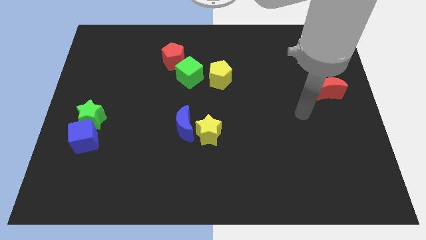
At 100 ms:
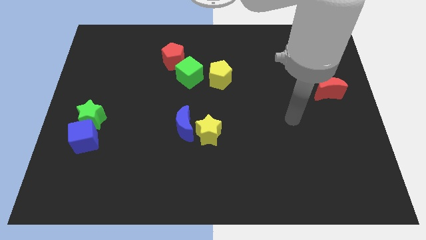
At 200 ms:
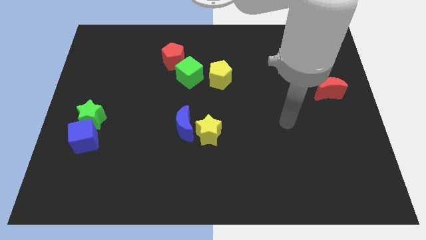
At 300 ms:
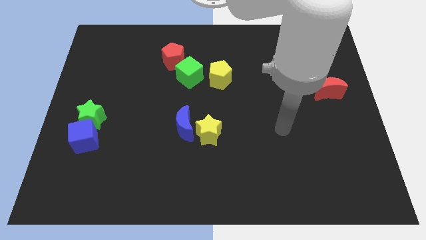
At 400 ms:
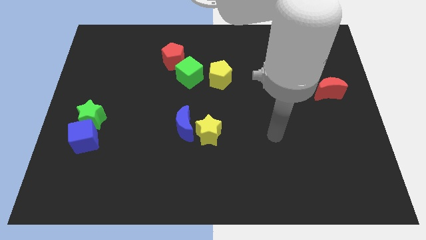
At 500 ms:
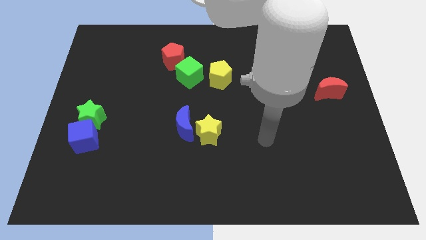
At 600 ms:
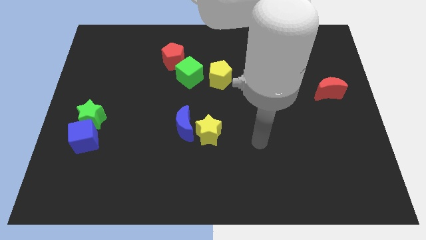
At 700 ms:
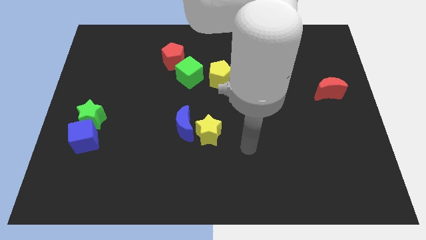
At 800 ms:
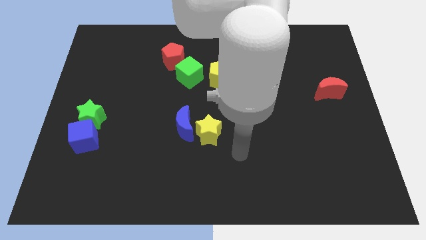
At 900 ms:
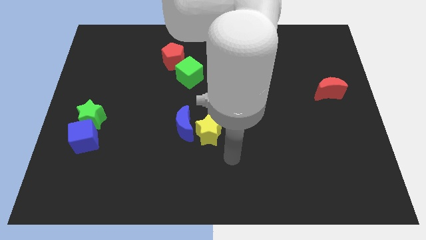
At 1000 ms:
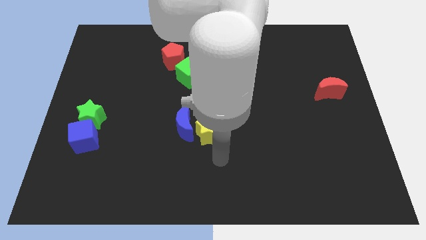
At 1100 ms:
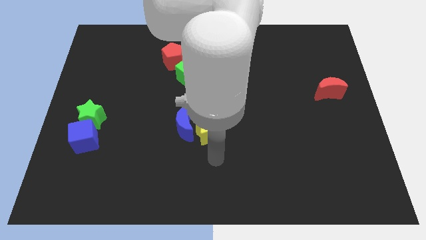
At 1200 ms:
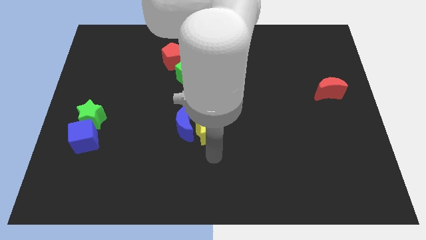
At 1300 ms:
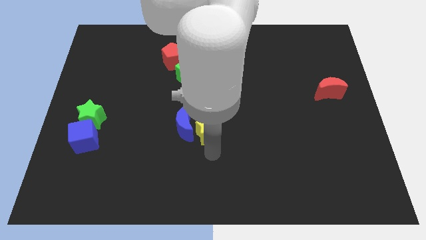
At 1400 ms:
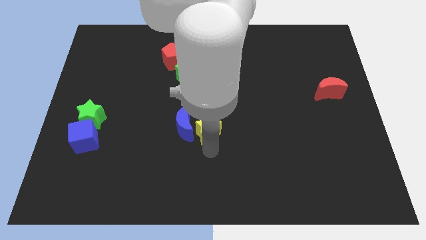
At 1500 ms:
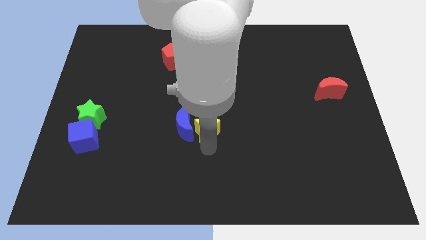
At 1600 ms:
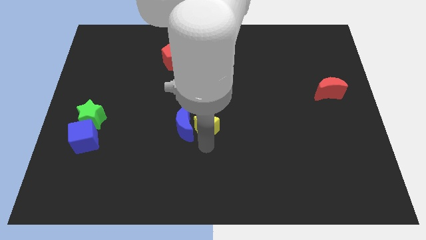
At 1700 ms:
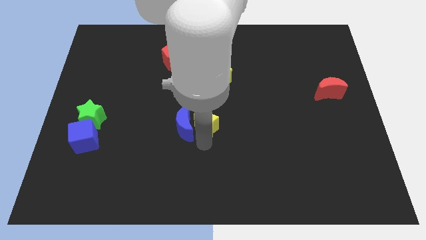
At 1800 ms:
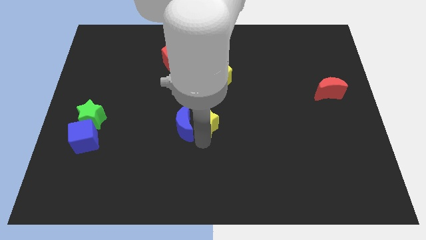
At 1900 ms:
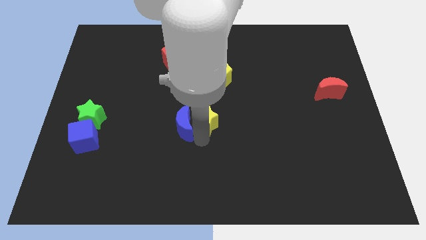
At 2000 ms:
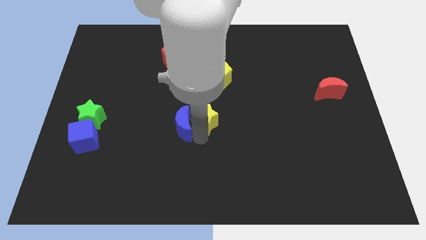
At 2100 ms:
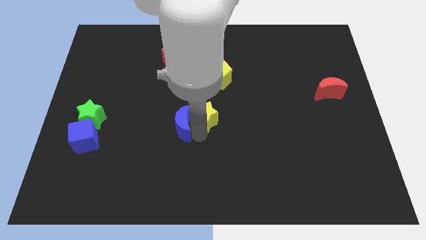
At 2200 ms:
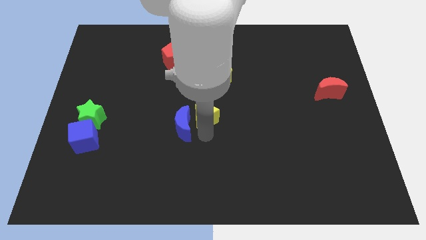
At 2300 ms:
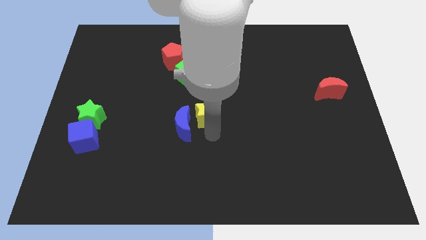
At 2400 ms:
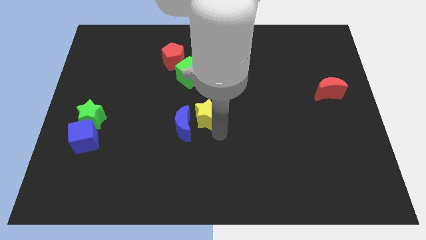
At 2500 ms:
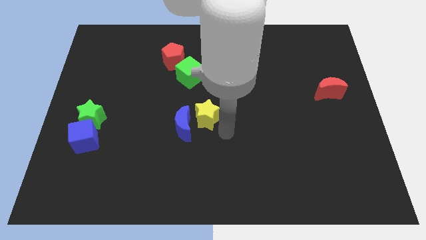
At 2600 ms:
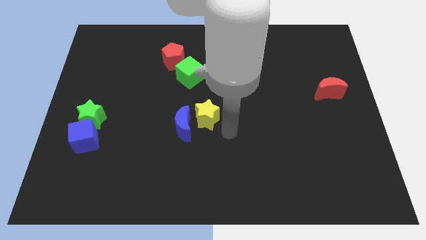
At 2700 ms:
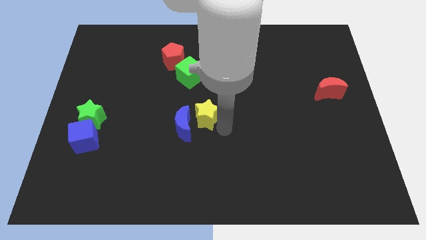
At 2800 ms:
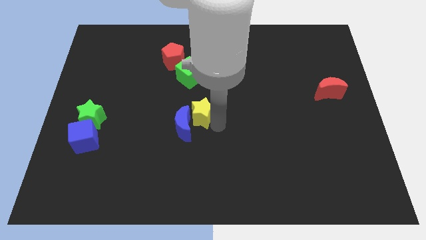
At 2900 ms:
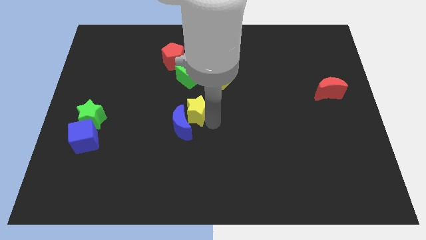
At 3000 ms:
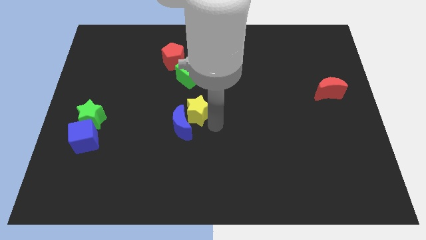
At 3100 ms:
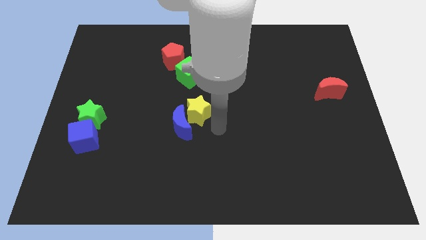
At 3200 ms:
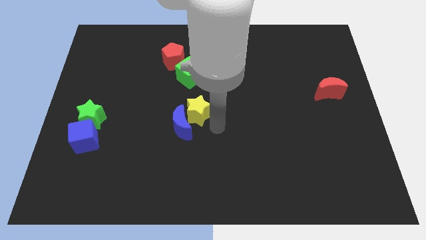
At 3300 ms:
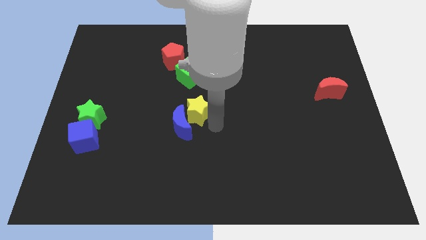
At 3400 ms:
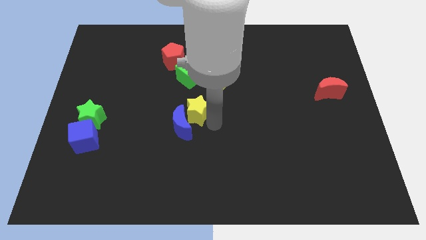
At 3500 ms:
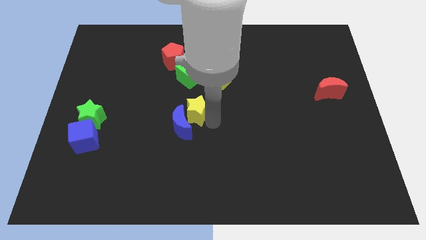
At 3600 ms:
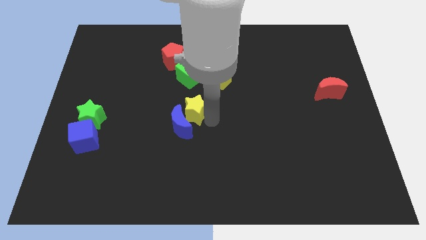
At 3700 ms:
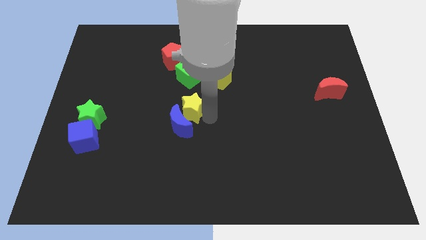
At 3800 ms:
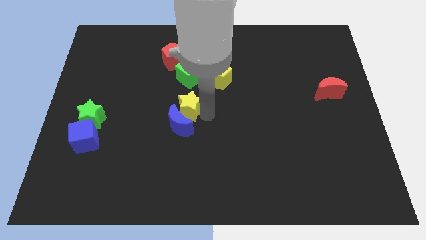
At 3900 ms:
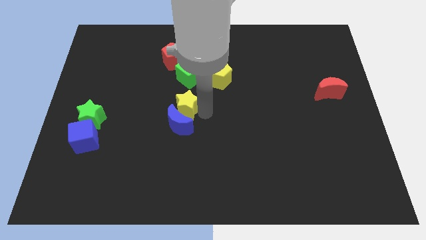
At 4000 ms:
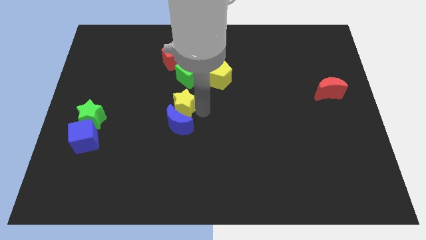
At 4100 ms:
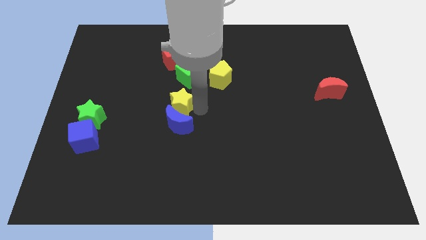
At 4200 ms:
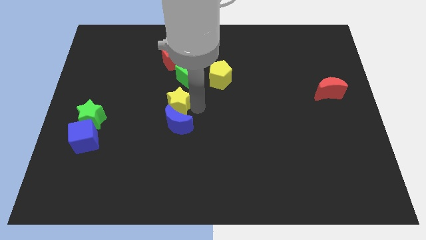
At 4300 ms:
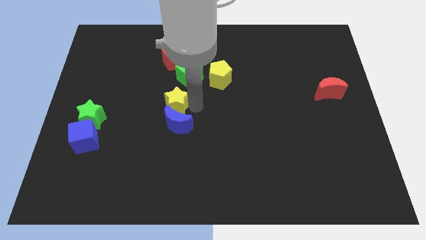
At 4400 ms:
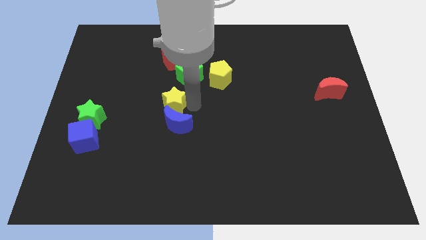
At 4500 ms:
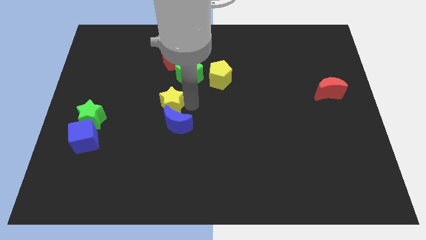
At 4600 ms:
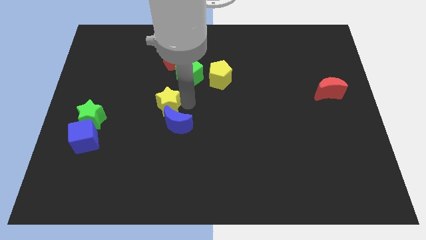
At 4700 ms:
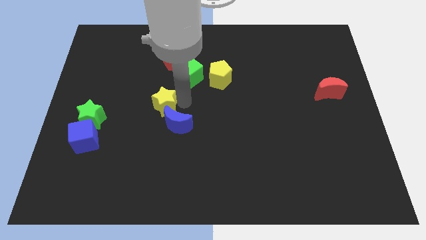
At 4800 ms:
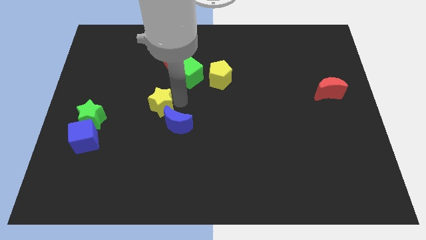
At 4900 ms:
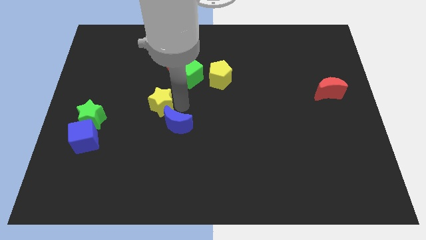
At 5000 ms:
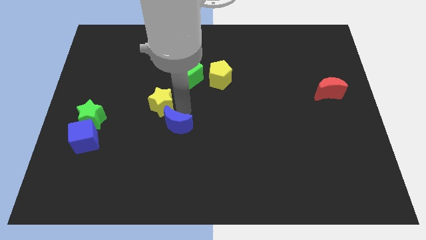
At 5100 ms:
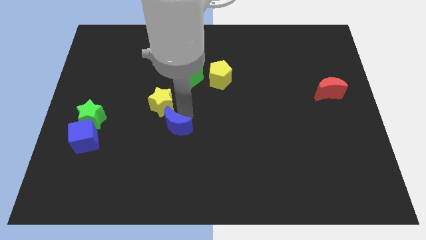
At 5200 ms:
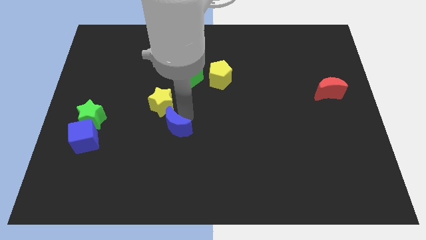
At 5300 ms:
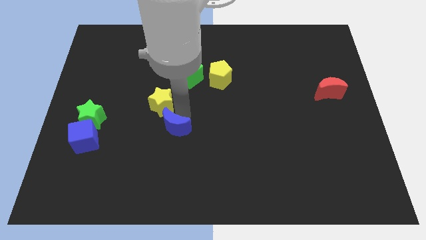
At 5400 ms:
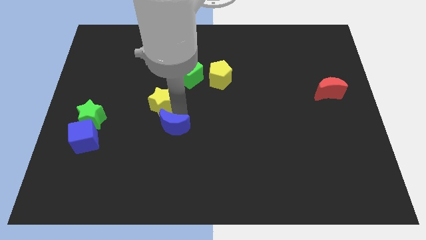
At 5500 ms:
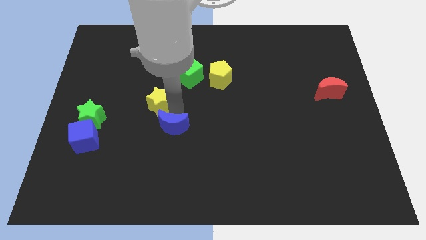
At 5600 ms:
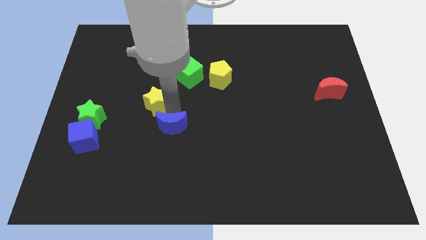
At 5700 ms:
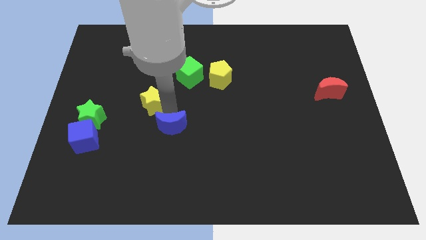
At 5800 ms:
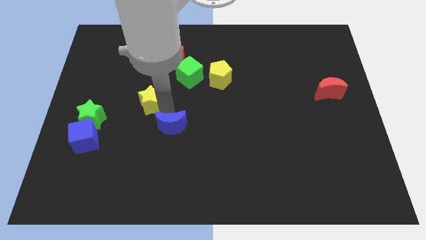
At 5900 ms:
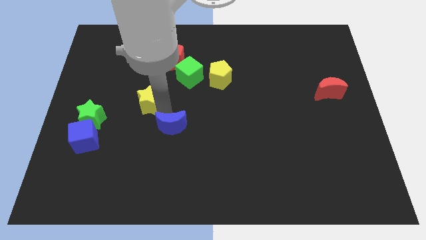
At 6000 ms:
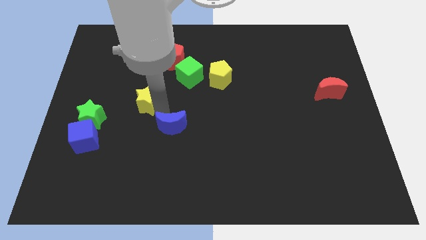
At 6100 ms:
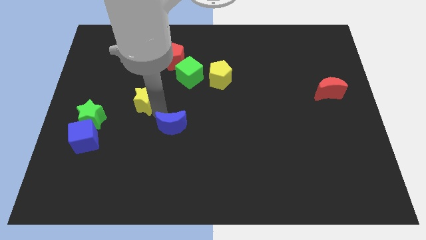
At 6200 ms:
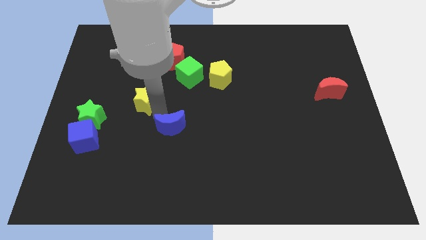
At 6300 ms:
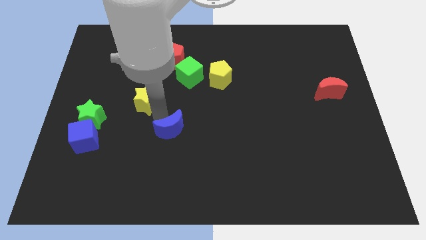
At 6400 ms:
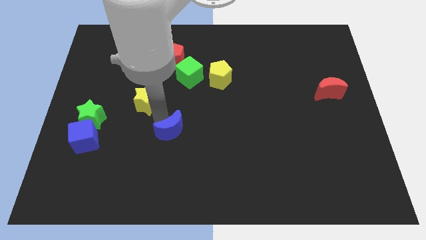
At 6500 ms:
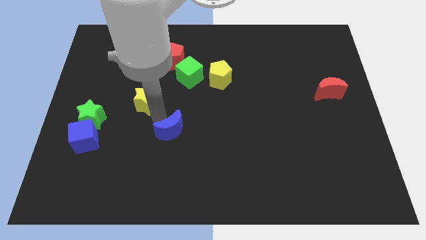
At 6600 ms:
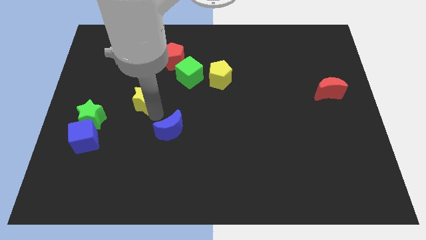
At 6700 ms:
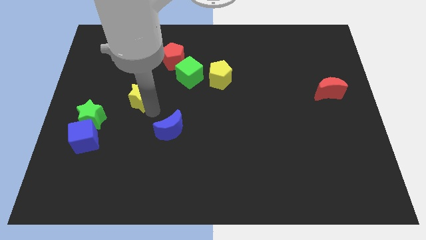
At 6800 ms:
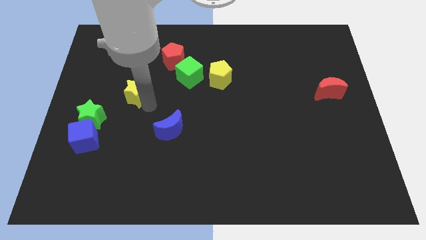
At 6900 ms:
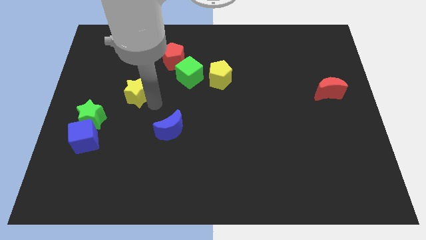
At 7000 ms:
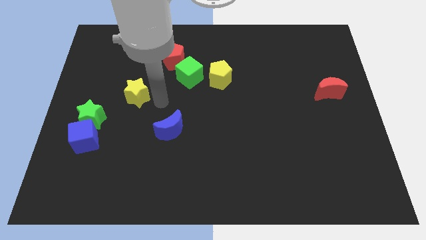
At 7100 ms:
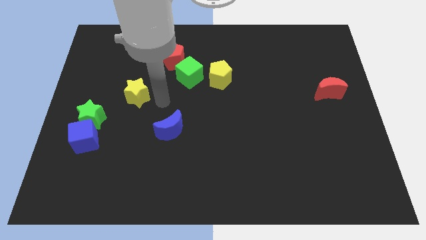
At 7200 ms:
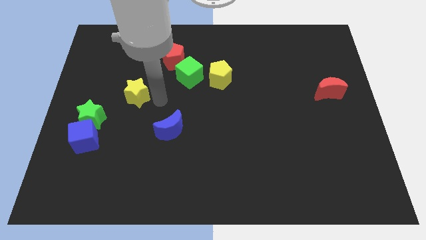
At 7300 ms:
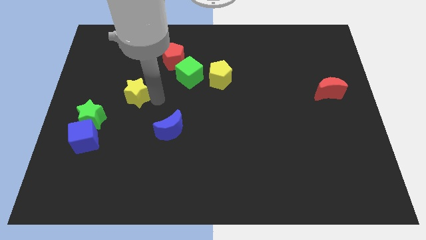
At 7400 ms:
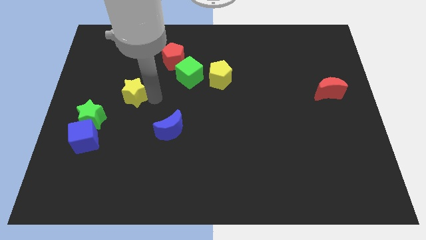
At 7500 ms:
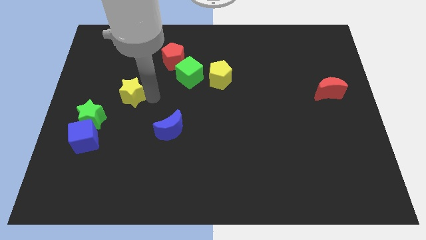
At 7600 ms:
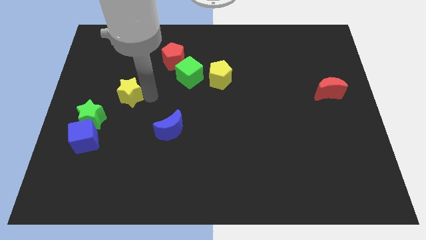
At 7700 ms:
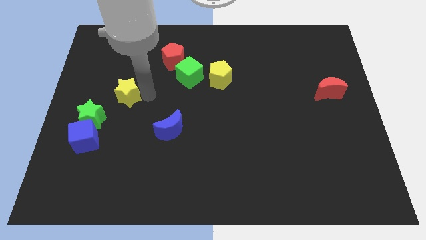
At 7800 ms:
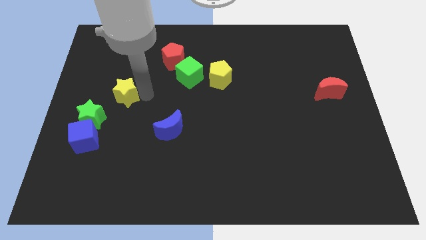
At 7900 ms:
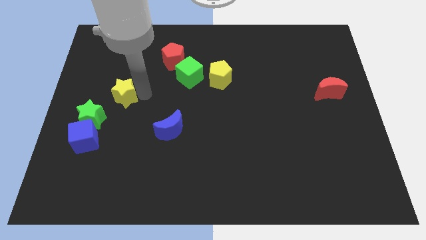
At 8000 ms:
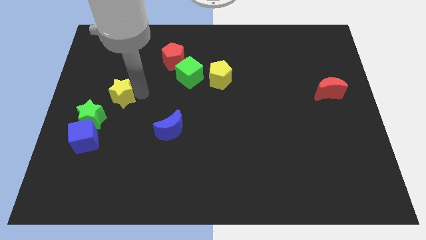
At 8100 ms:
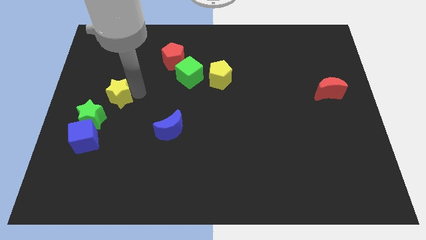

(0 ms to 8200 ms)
move the yellow star to the top of the green star
